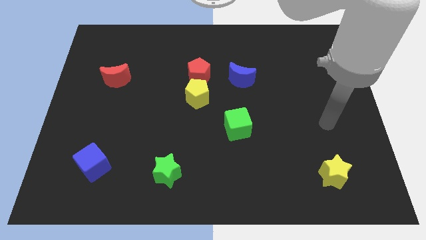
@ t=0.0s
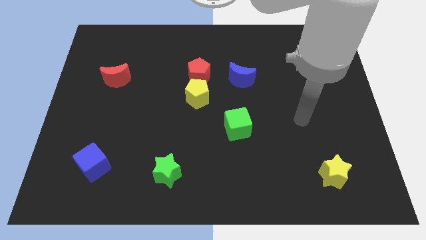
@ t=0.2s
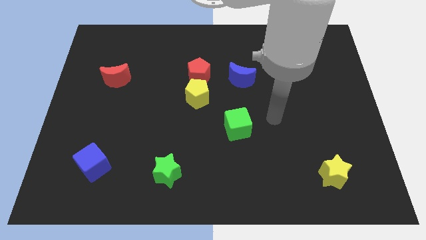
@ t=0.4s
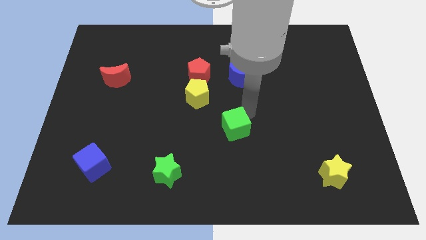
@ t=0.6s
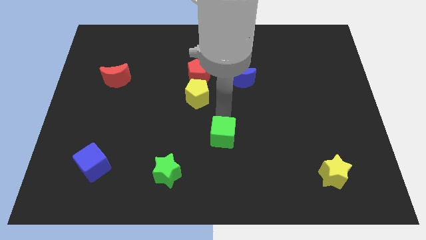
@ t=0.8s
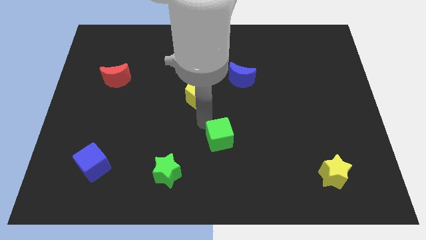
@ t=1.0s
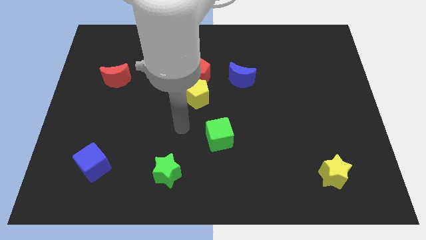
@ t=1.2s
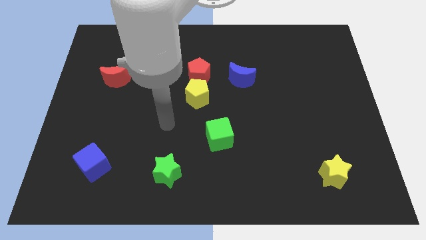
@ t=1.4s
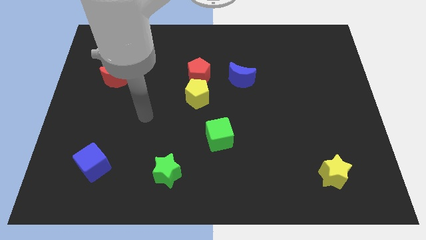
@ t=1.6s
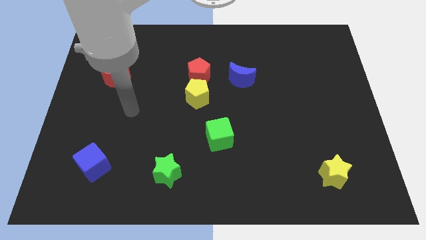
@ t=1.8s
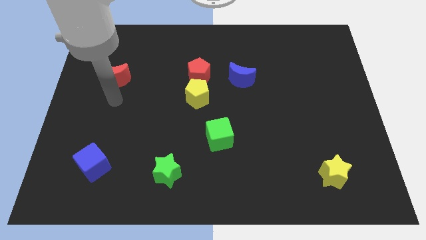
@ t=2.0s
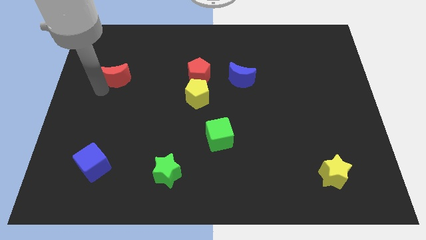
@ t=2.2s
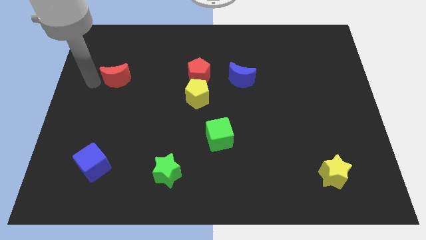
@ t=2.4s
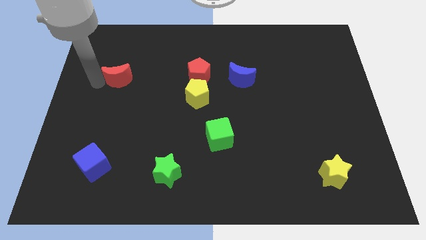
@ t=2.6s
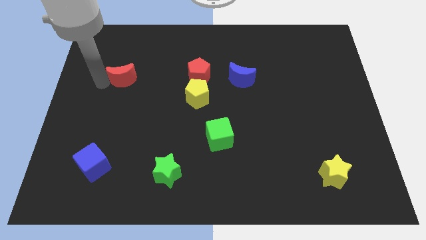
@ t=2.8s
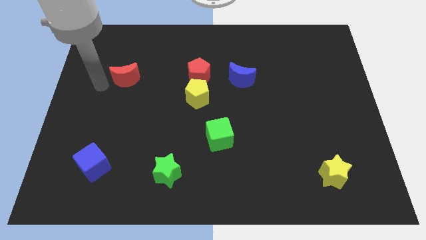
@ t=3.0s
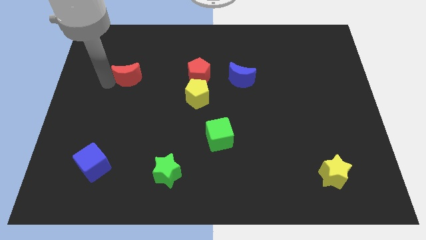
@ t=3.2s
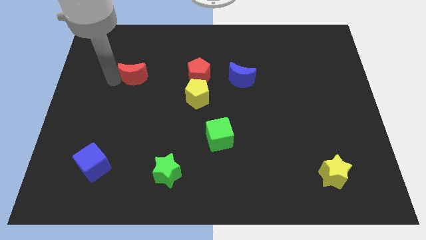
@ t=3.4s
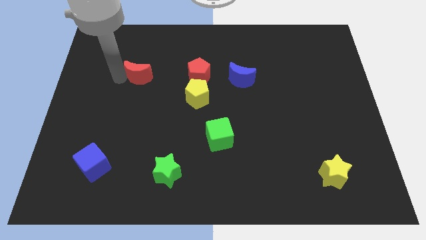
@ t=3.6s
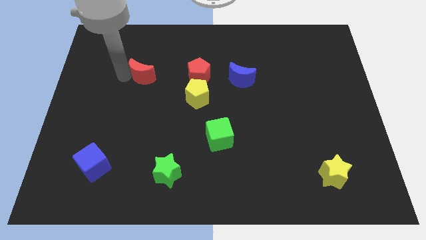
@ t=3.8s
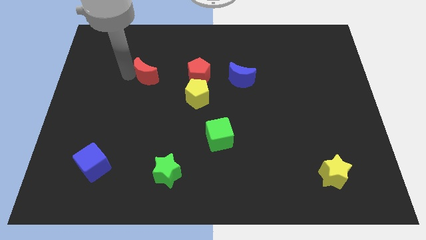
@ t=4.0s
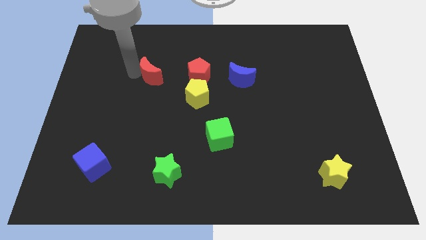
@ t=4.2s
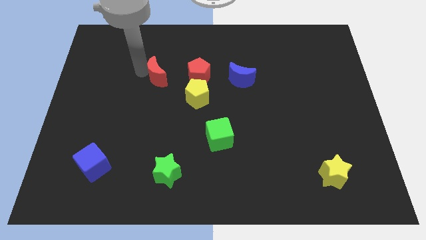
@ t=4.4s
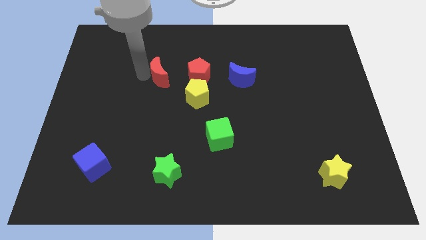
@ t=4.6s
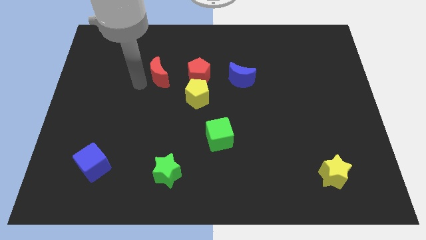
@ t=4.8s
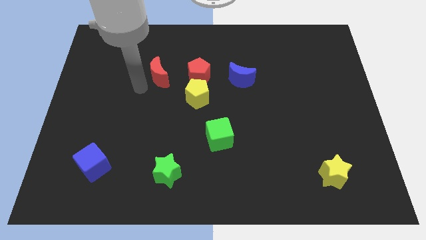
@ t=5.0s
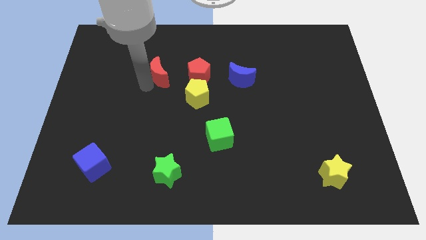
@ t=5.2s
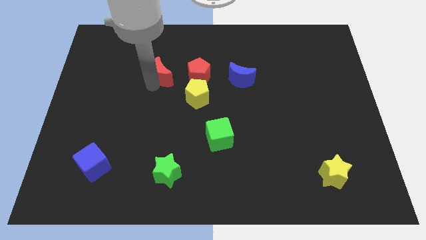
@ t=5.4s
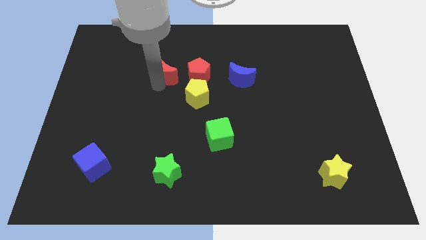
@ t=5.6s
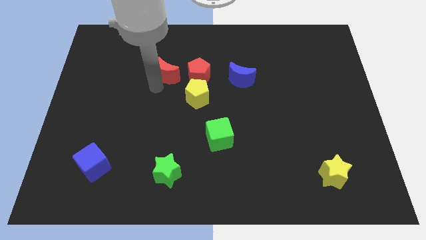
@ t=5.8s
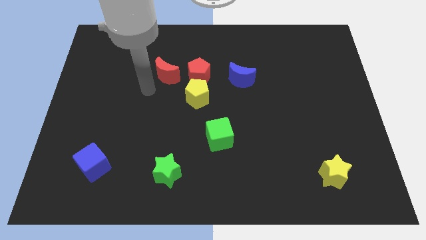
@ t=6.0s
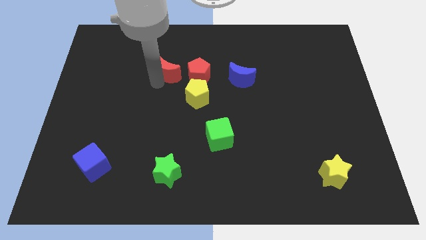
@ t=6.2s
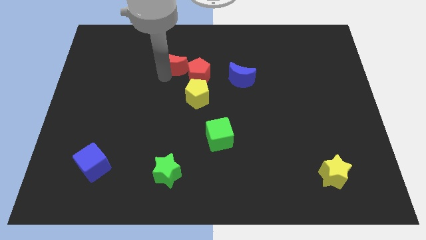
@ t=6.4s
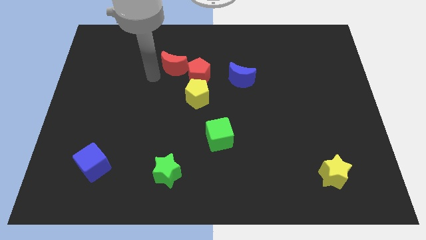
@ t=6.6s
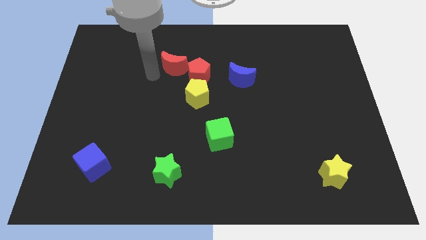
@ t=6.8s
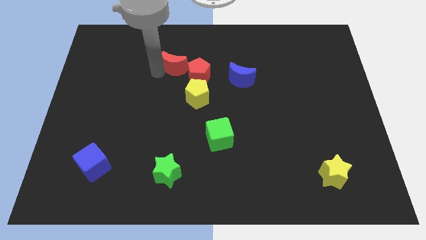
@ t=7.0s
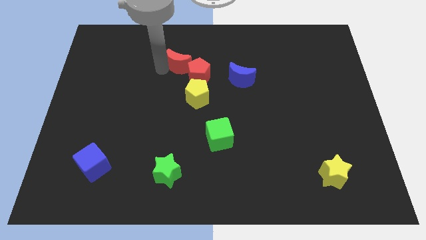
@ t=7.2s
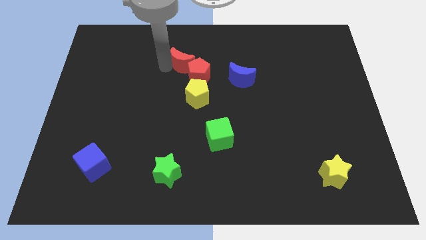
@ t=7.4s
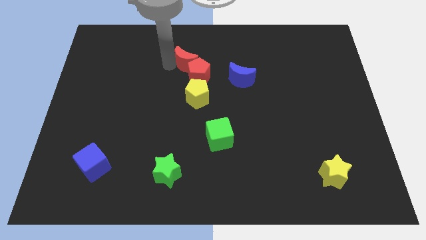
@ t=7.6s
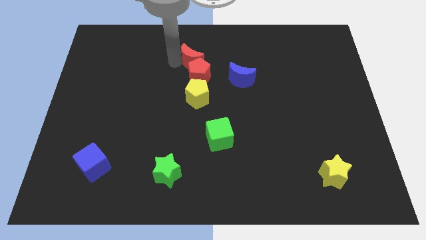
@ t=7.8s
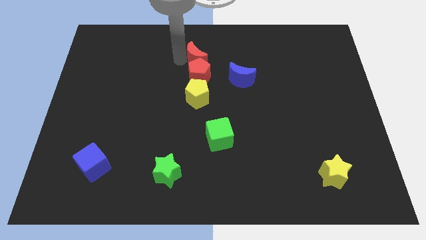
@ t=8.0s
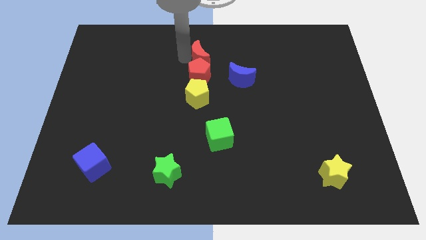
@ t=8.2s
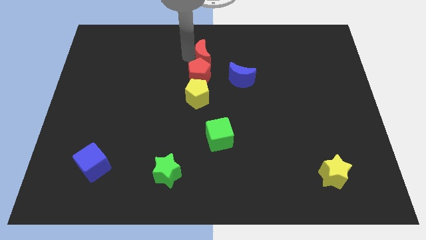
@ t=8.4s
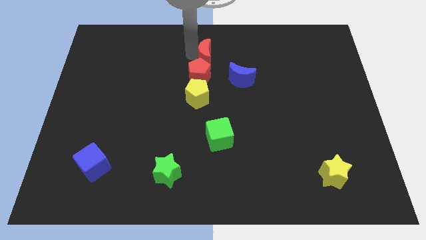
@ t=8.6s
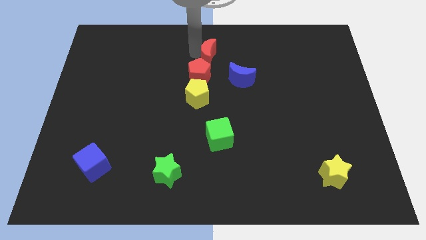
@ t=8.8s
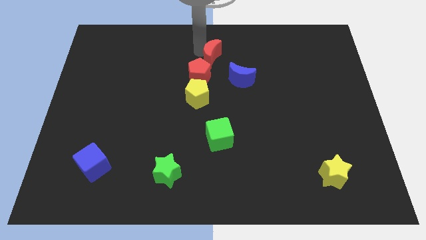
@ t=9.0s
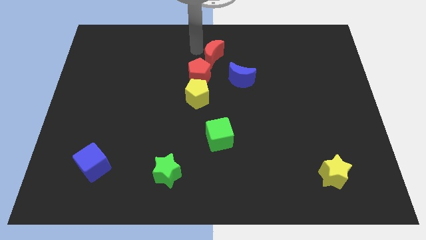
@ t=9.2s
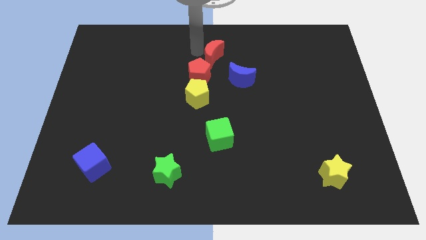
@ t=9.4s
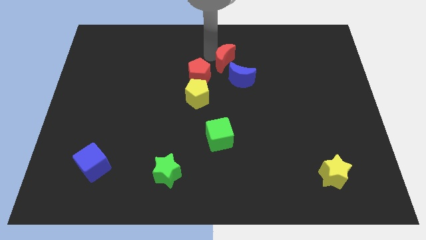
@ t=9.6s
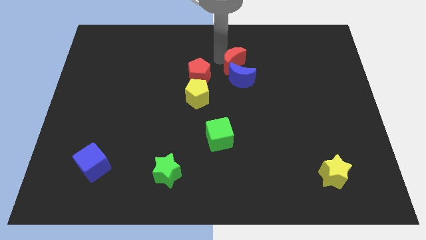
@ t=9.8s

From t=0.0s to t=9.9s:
put the red moon to the right of the red pentagon

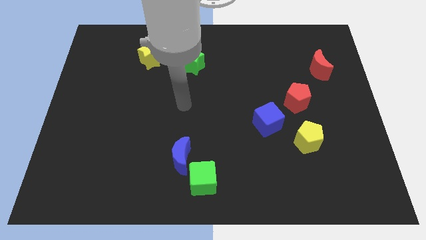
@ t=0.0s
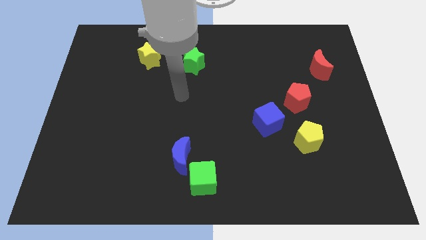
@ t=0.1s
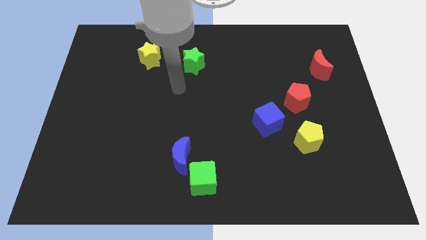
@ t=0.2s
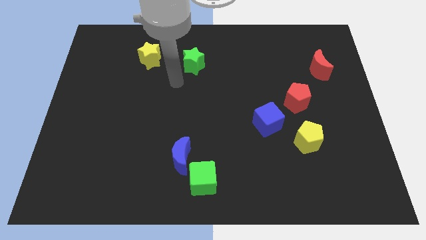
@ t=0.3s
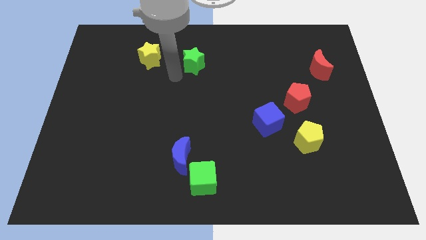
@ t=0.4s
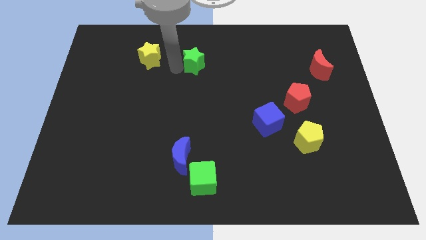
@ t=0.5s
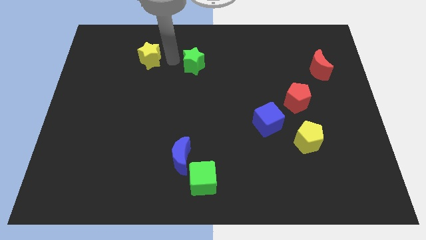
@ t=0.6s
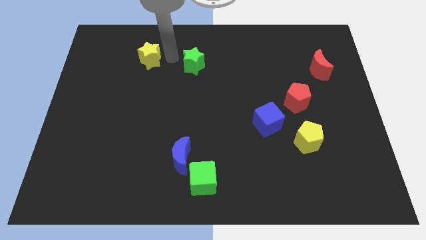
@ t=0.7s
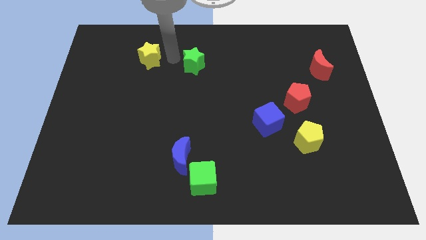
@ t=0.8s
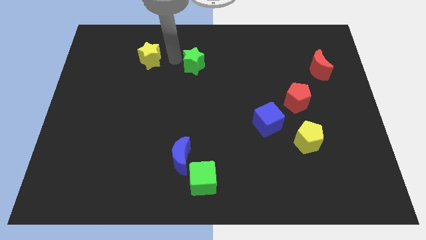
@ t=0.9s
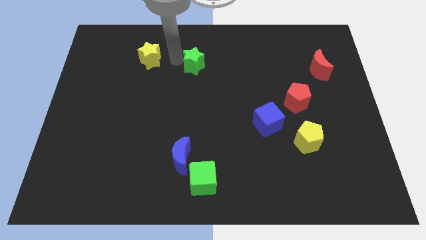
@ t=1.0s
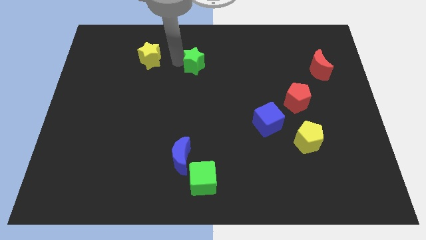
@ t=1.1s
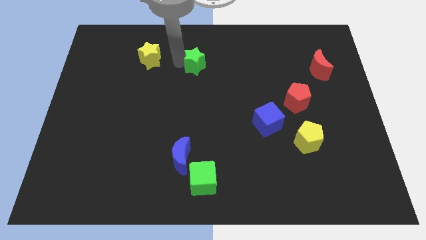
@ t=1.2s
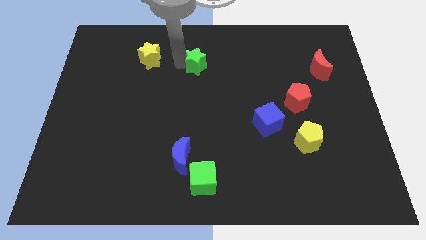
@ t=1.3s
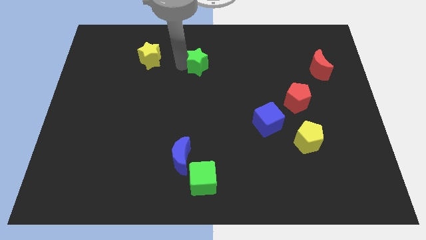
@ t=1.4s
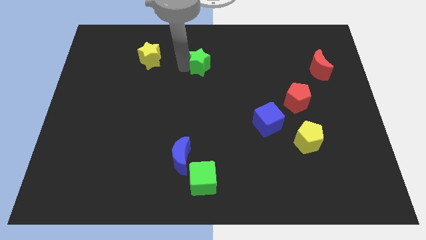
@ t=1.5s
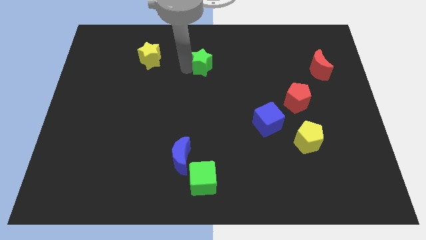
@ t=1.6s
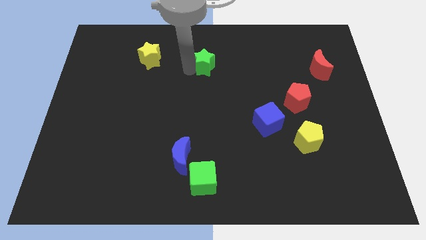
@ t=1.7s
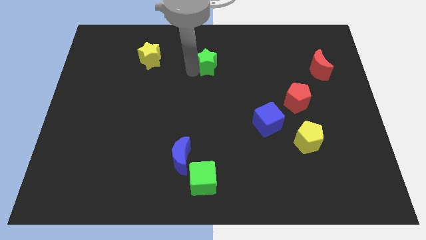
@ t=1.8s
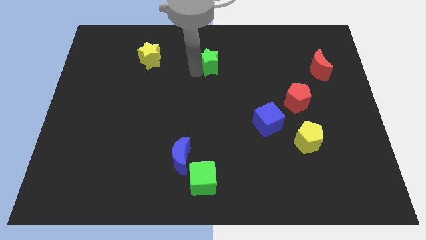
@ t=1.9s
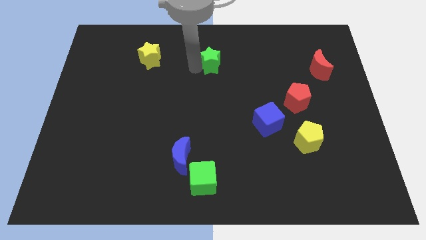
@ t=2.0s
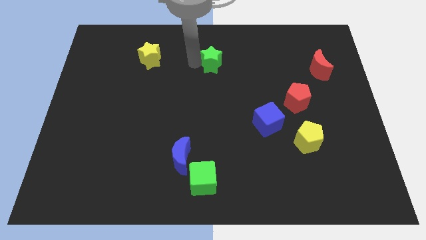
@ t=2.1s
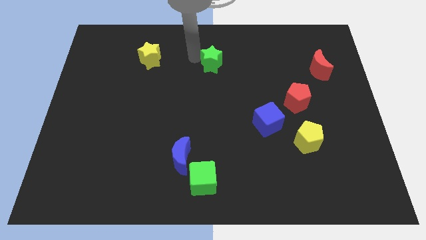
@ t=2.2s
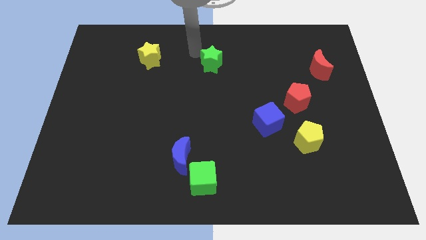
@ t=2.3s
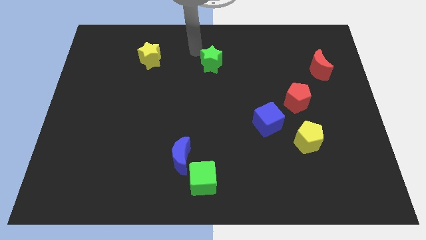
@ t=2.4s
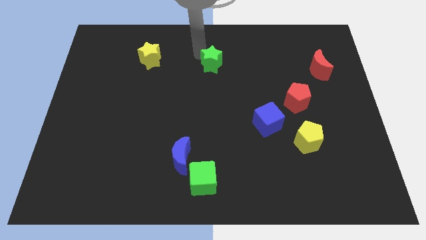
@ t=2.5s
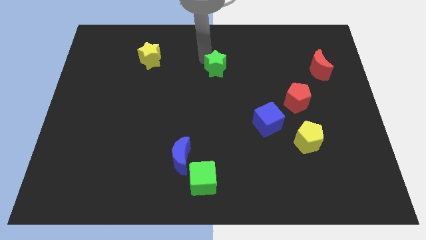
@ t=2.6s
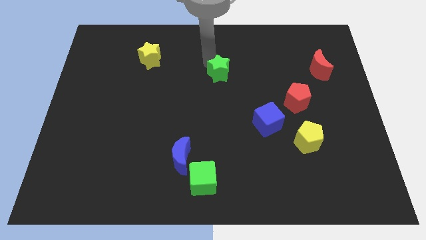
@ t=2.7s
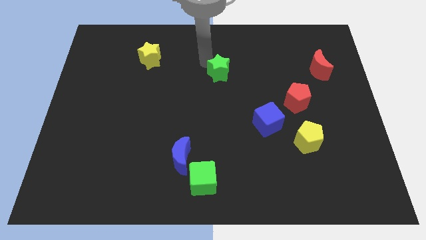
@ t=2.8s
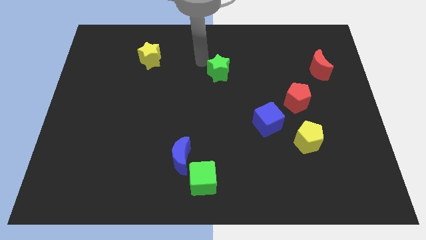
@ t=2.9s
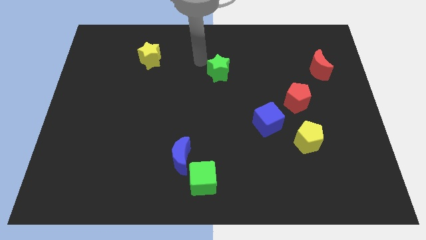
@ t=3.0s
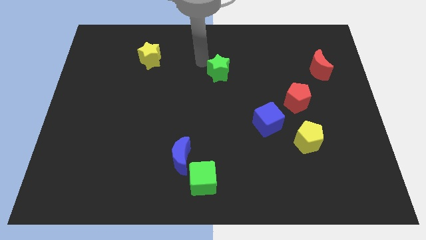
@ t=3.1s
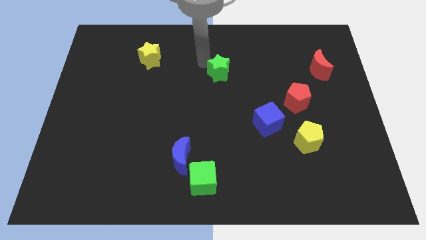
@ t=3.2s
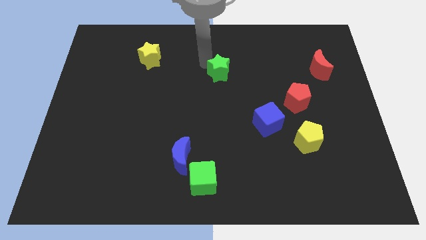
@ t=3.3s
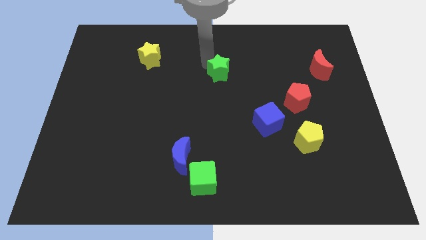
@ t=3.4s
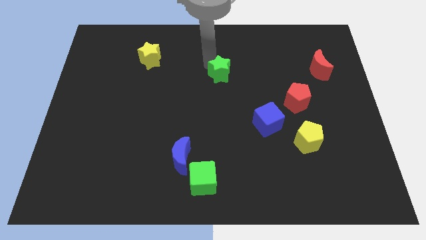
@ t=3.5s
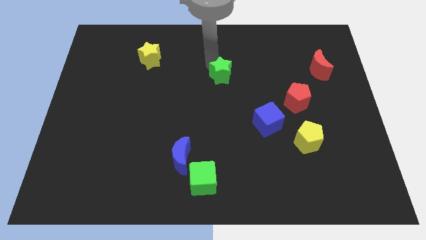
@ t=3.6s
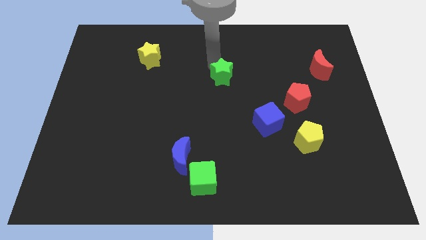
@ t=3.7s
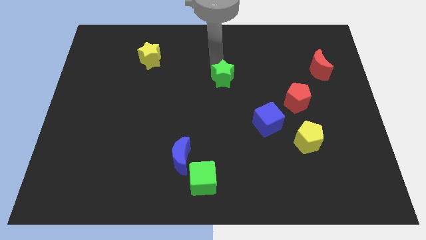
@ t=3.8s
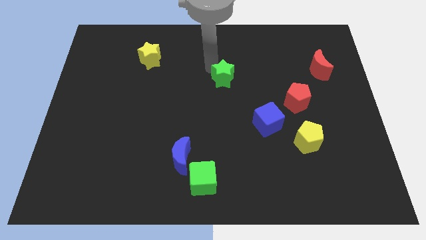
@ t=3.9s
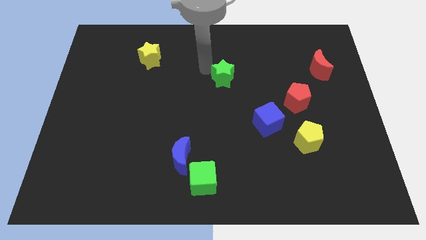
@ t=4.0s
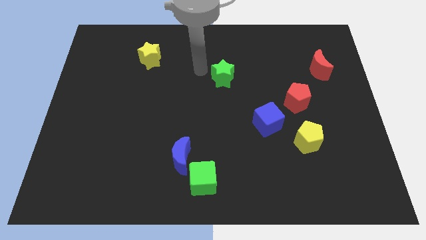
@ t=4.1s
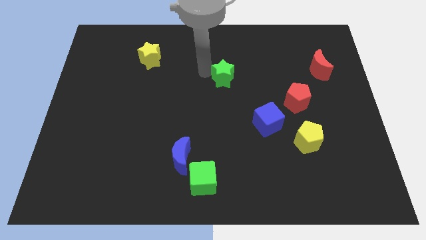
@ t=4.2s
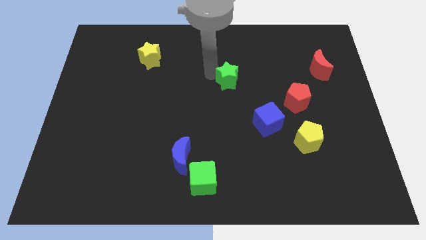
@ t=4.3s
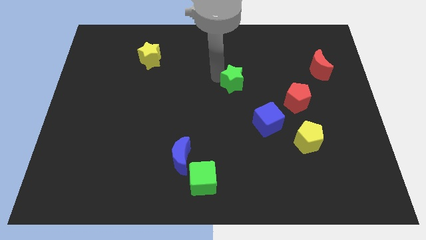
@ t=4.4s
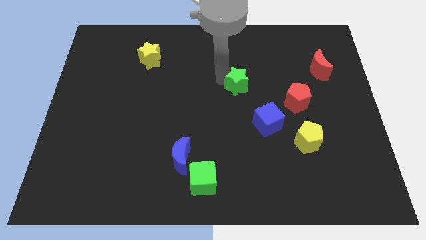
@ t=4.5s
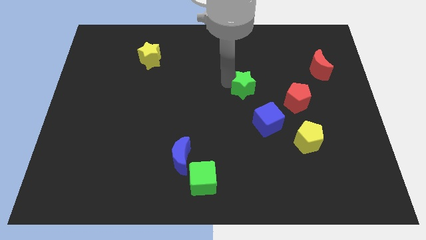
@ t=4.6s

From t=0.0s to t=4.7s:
move the green star to the top of the blue cube
